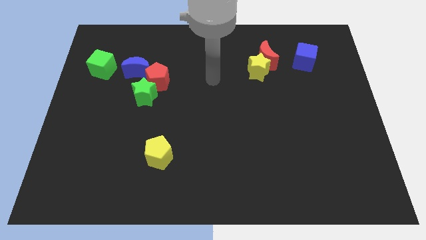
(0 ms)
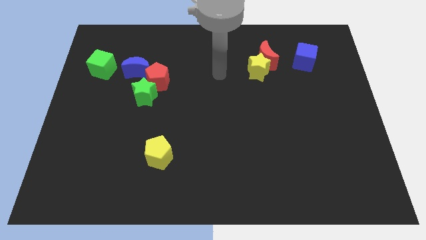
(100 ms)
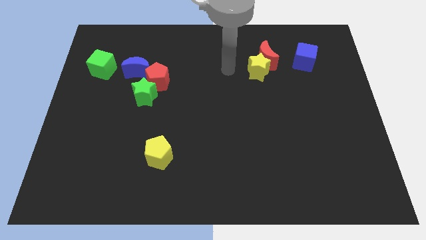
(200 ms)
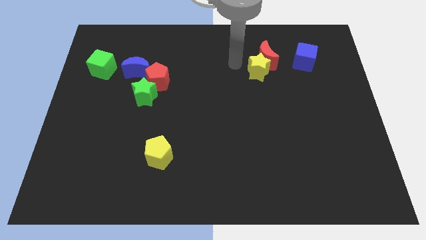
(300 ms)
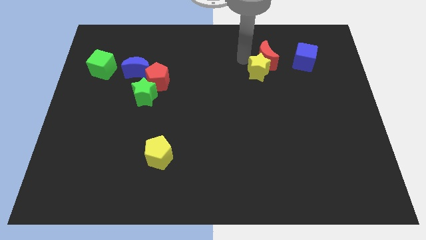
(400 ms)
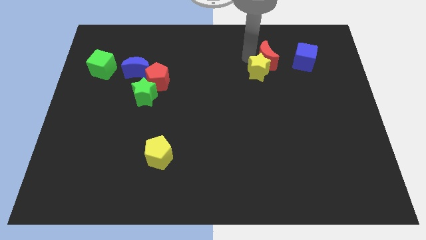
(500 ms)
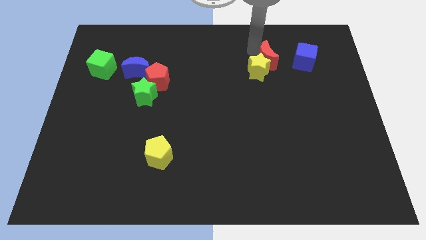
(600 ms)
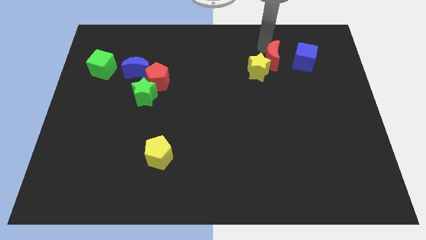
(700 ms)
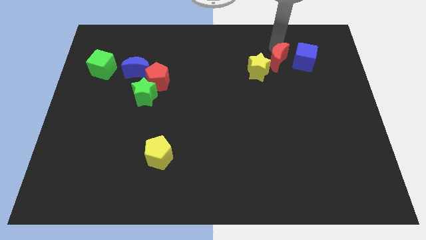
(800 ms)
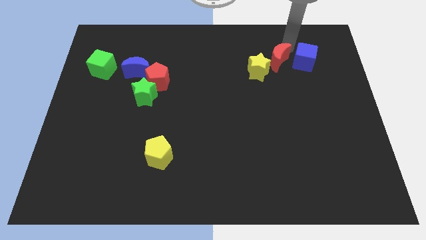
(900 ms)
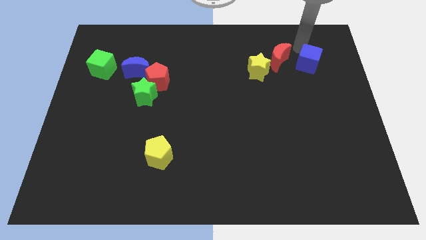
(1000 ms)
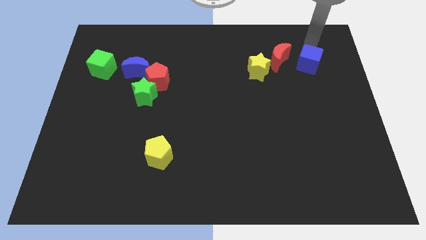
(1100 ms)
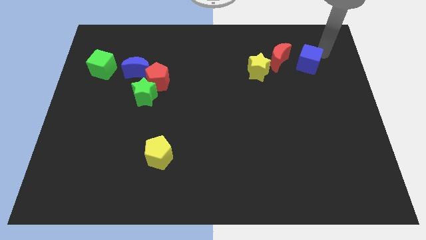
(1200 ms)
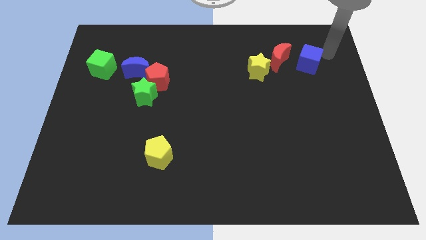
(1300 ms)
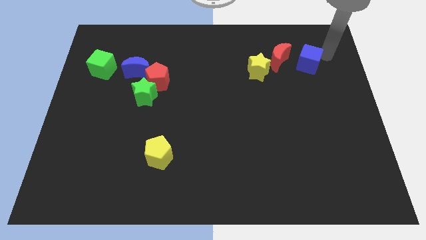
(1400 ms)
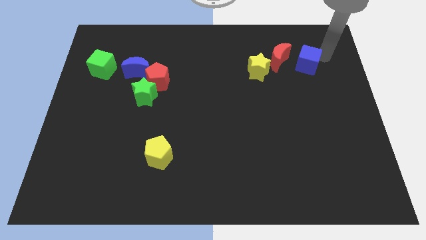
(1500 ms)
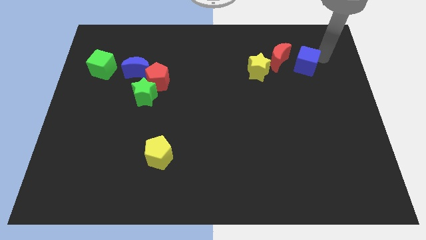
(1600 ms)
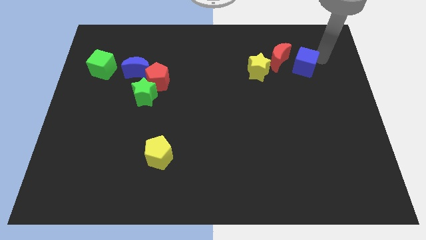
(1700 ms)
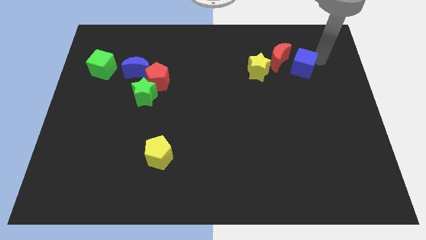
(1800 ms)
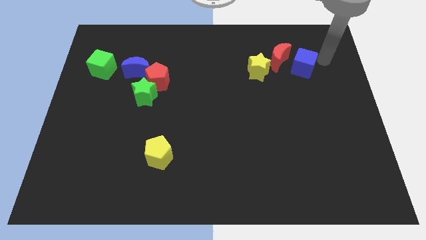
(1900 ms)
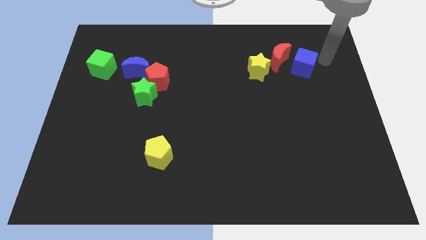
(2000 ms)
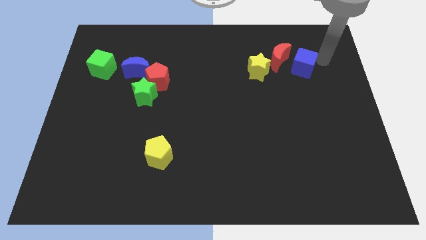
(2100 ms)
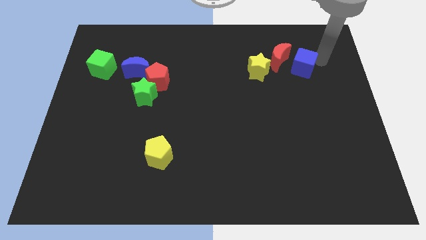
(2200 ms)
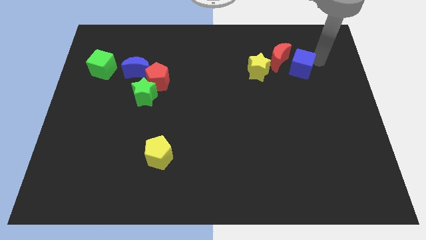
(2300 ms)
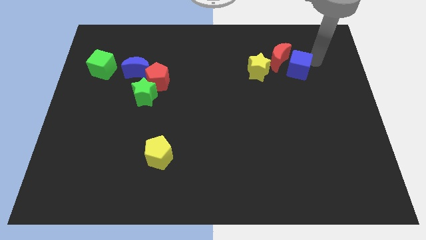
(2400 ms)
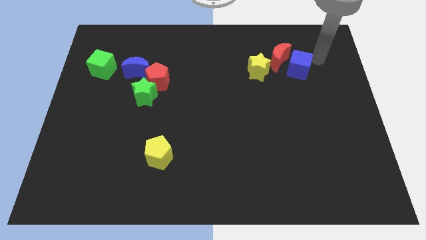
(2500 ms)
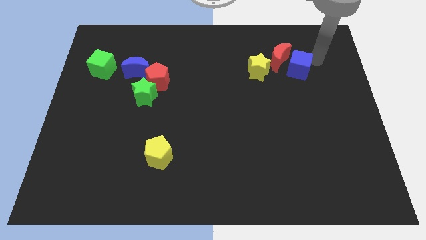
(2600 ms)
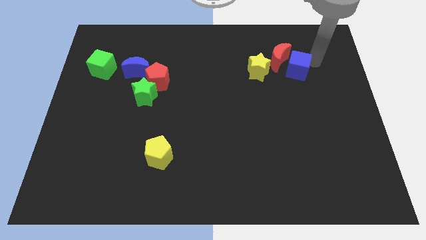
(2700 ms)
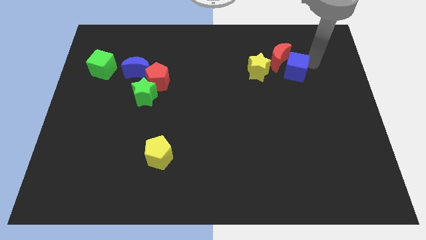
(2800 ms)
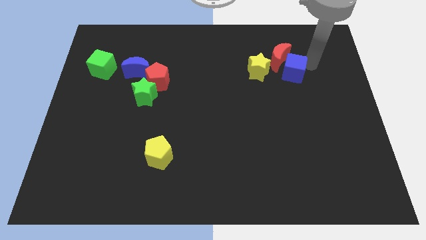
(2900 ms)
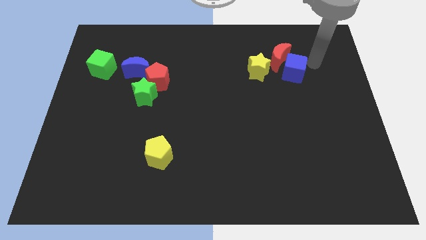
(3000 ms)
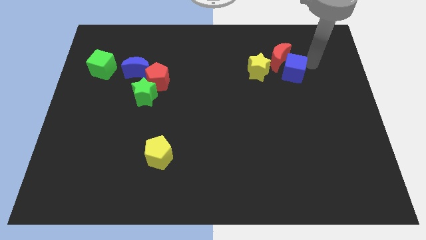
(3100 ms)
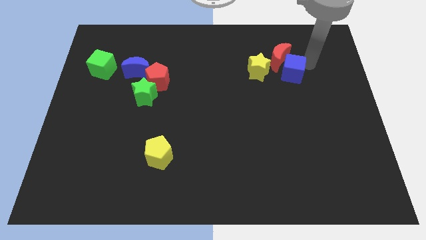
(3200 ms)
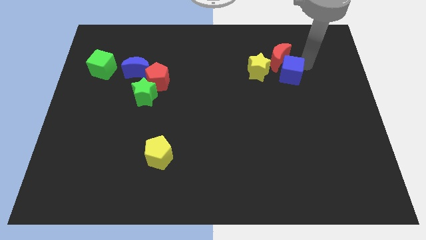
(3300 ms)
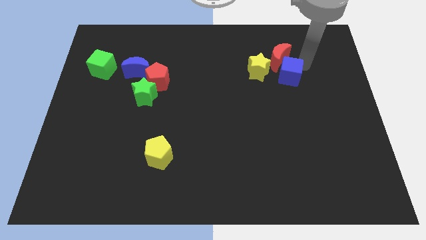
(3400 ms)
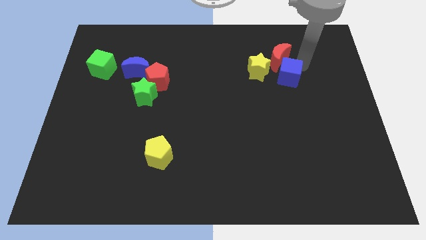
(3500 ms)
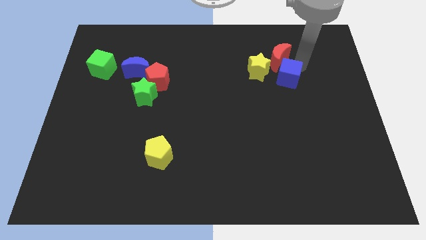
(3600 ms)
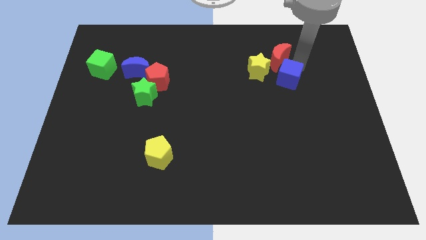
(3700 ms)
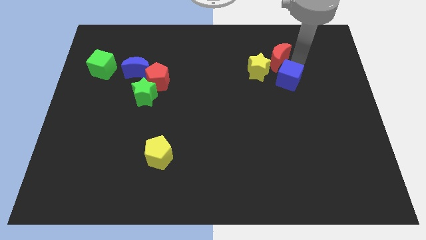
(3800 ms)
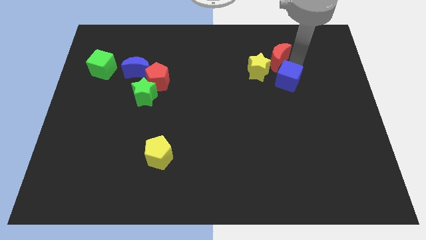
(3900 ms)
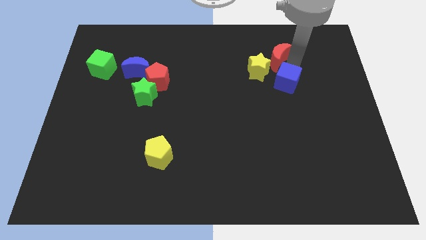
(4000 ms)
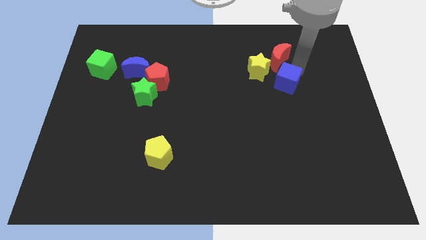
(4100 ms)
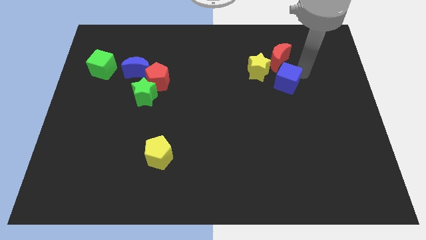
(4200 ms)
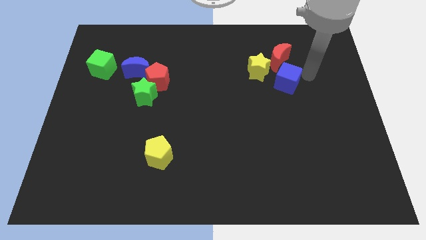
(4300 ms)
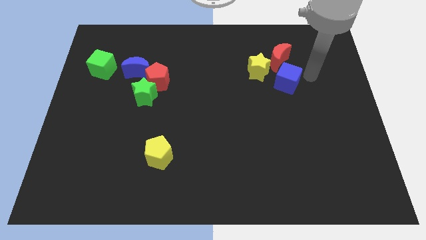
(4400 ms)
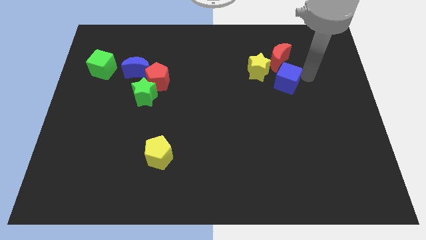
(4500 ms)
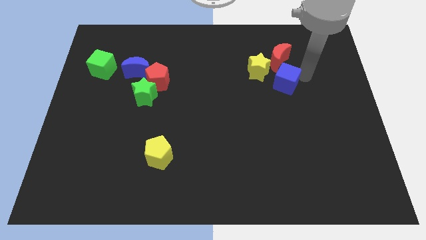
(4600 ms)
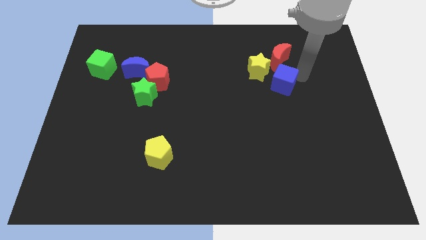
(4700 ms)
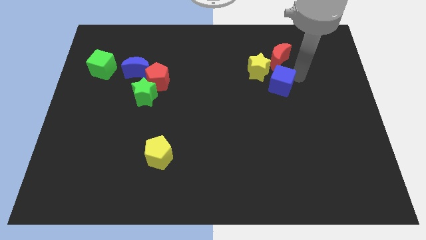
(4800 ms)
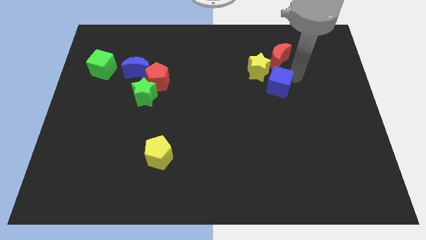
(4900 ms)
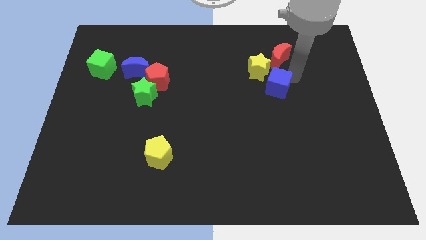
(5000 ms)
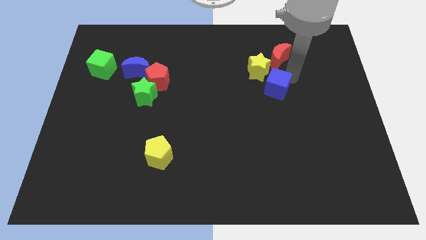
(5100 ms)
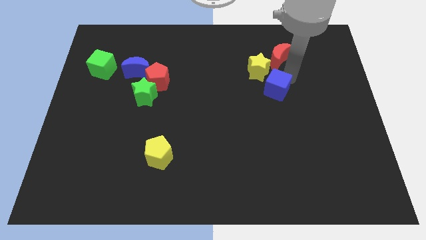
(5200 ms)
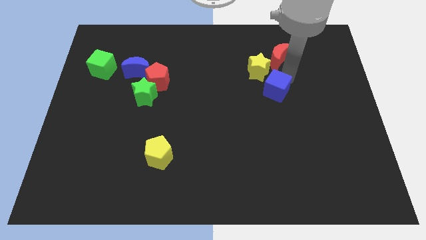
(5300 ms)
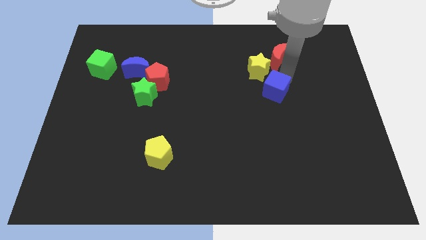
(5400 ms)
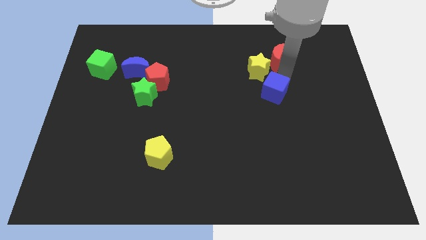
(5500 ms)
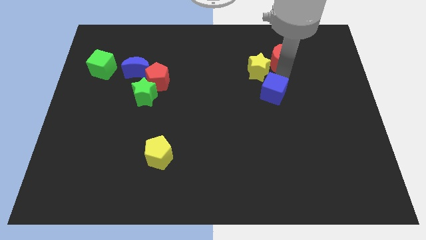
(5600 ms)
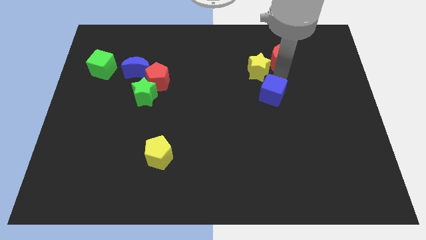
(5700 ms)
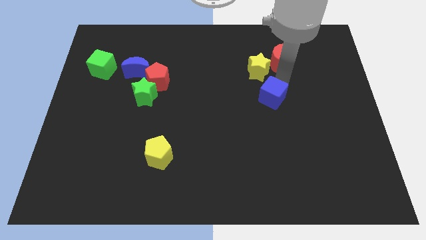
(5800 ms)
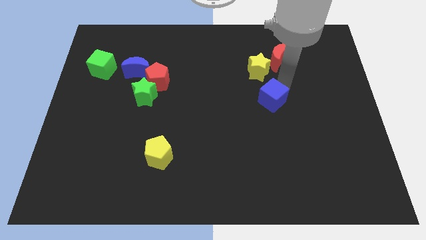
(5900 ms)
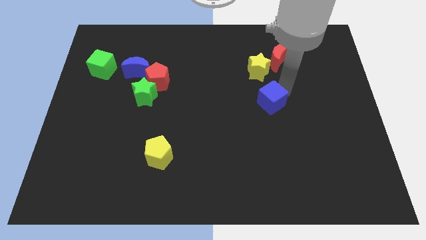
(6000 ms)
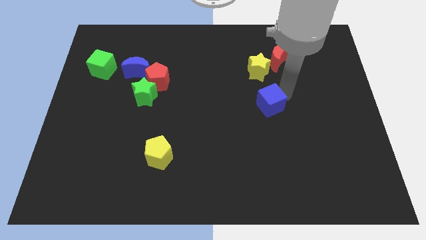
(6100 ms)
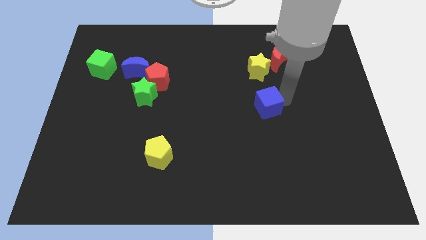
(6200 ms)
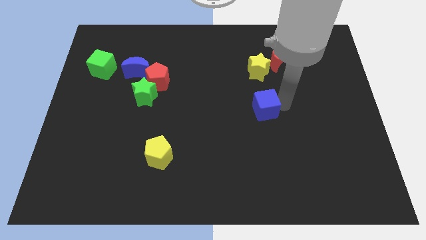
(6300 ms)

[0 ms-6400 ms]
slide the blue cube to the middle of the board

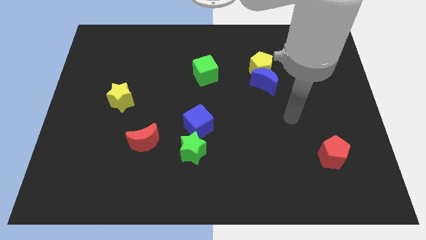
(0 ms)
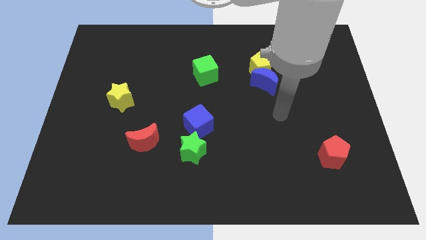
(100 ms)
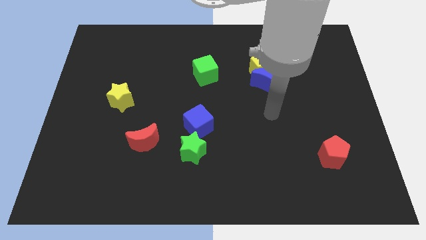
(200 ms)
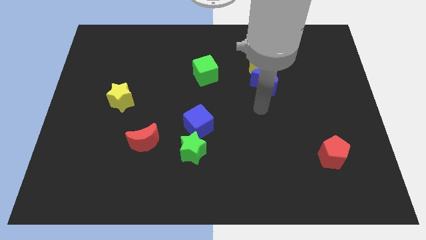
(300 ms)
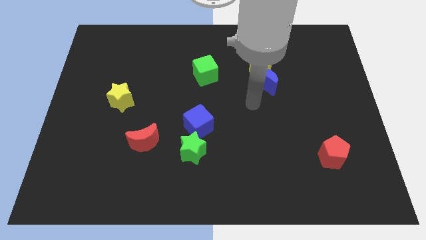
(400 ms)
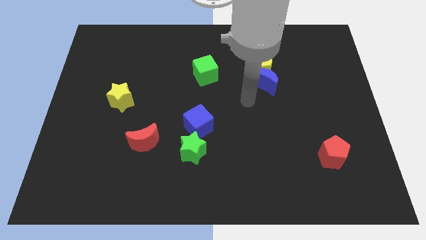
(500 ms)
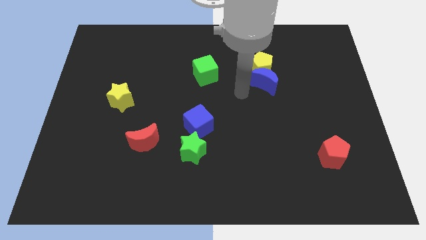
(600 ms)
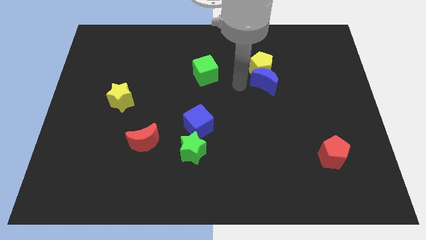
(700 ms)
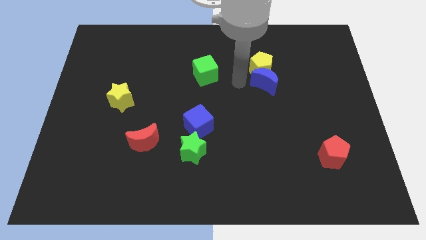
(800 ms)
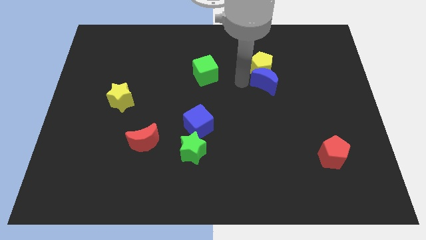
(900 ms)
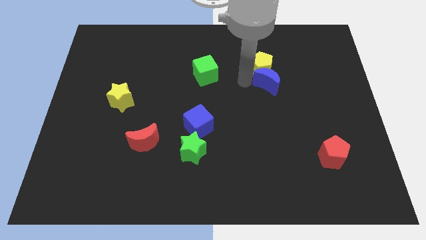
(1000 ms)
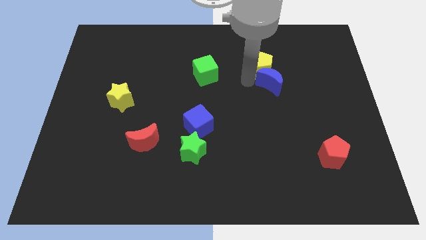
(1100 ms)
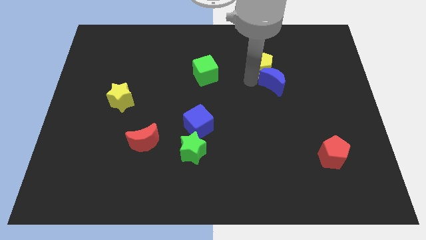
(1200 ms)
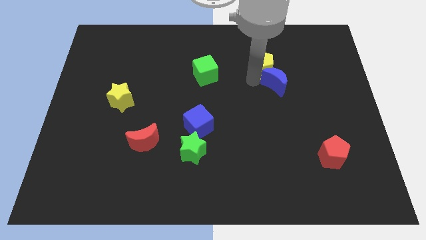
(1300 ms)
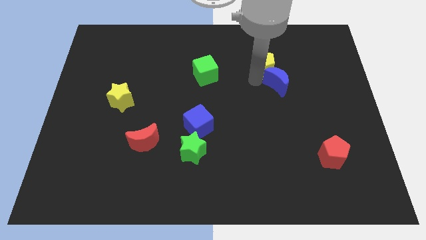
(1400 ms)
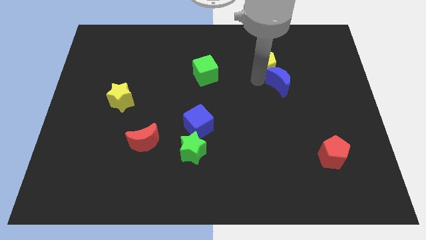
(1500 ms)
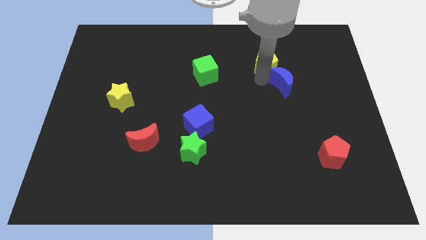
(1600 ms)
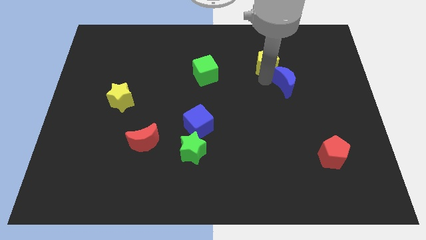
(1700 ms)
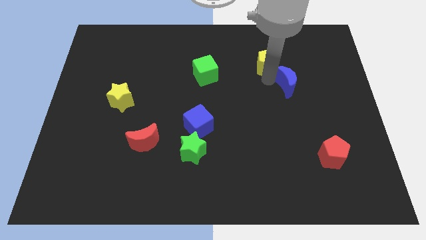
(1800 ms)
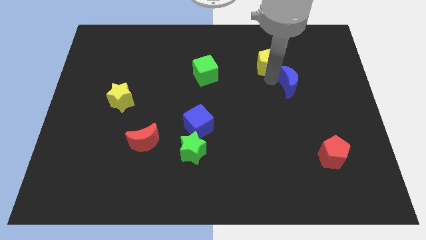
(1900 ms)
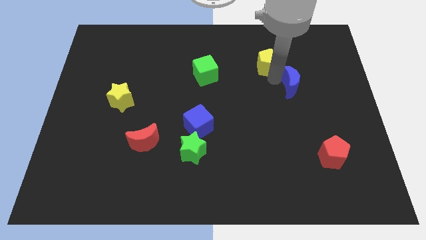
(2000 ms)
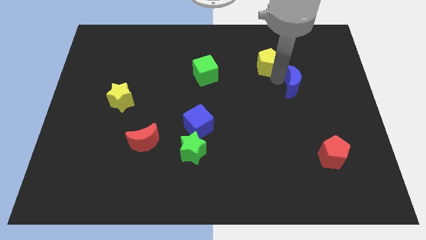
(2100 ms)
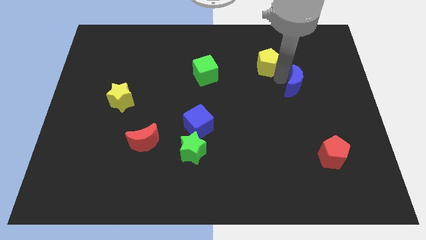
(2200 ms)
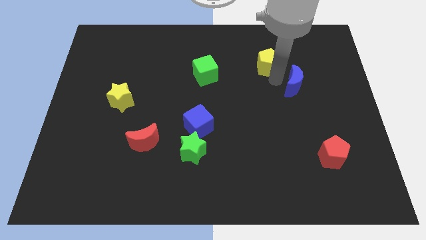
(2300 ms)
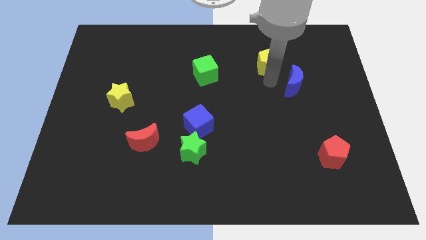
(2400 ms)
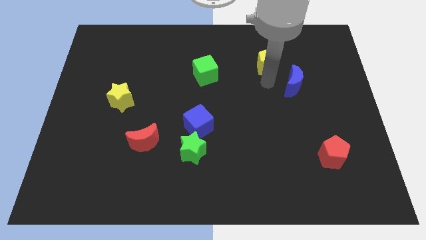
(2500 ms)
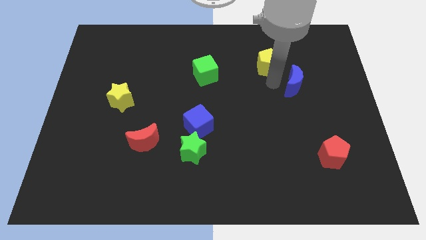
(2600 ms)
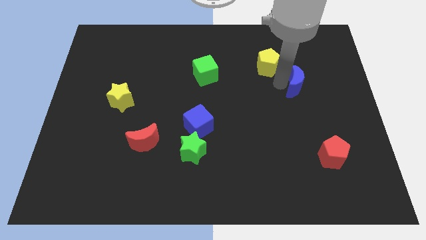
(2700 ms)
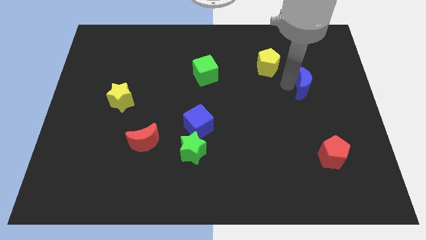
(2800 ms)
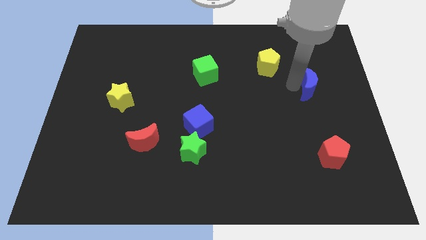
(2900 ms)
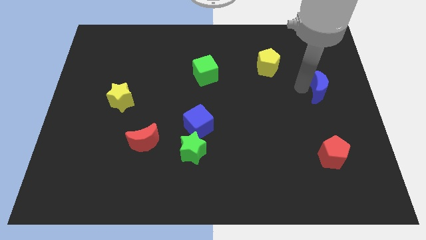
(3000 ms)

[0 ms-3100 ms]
put the blue moon to the right side
